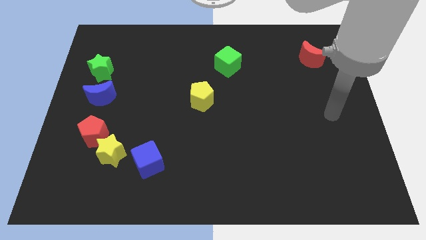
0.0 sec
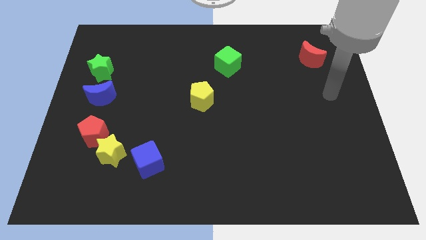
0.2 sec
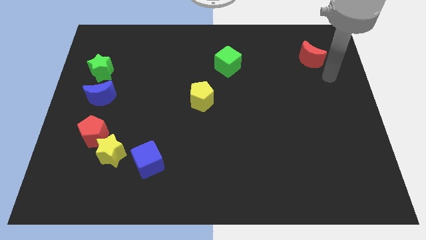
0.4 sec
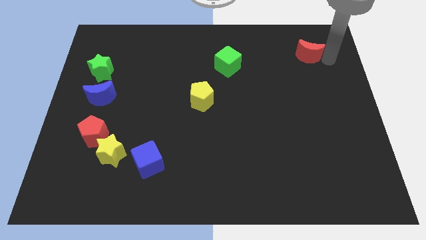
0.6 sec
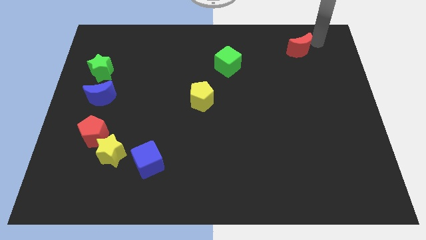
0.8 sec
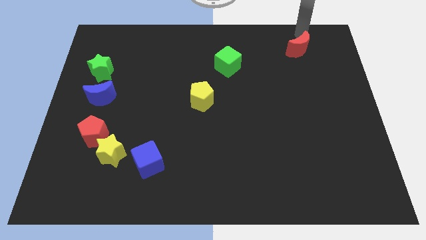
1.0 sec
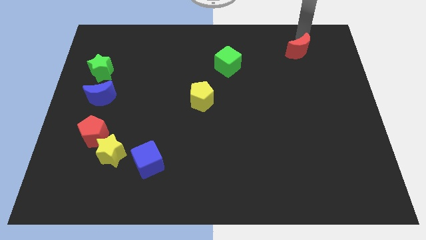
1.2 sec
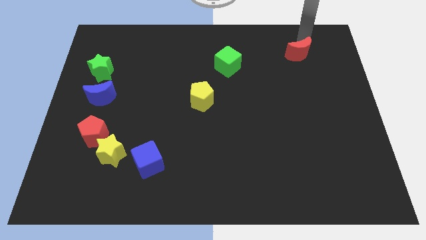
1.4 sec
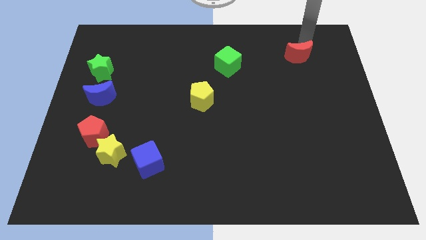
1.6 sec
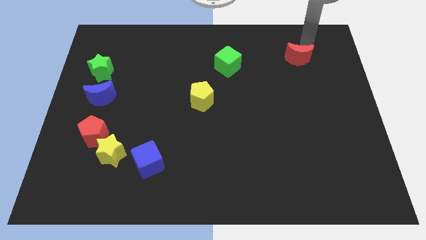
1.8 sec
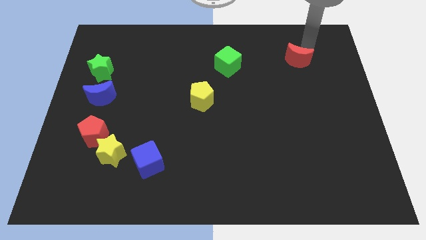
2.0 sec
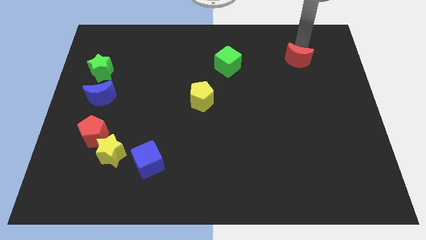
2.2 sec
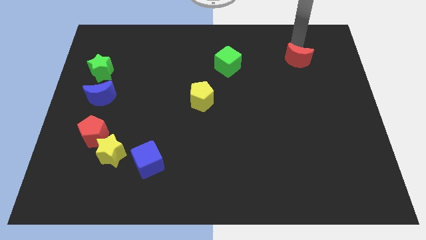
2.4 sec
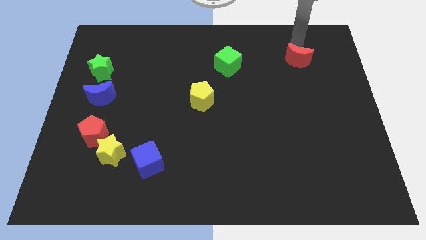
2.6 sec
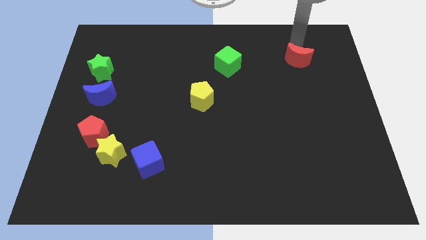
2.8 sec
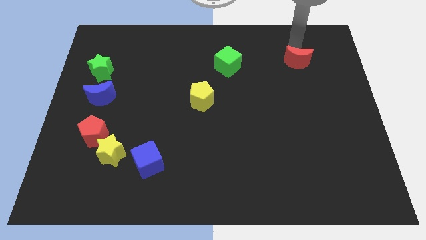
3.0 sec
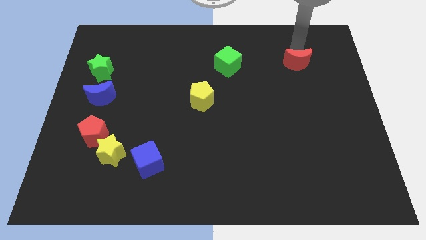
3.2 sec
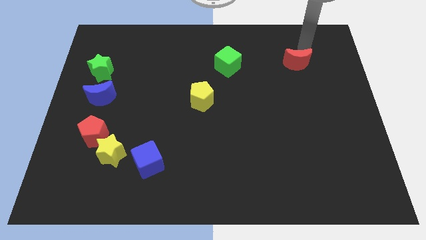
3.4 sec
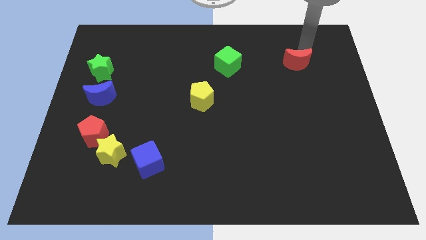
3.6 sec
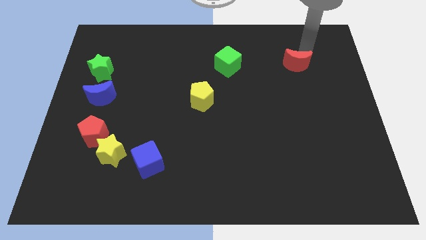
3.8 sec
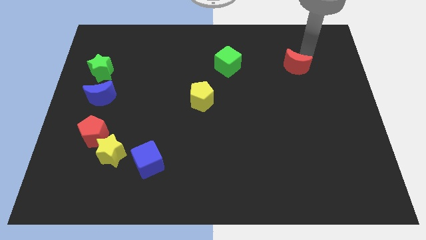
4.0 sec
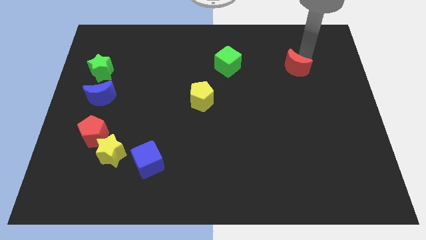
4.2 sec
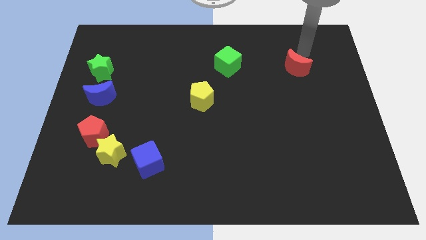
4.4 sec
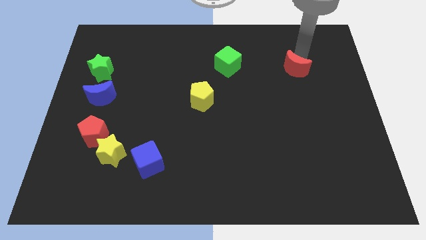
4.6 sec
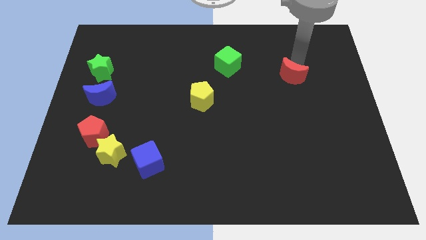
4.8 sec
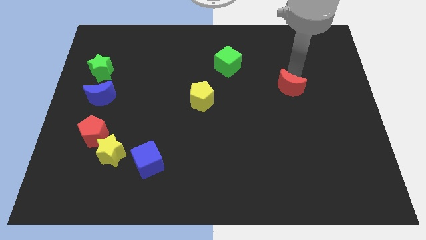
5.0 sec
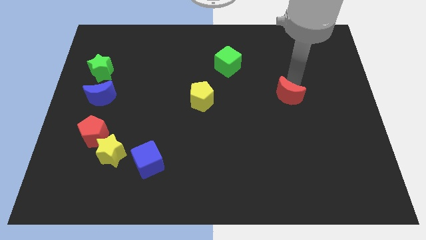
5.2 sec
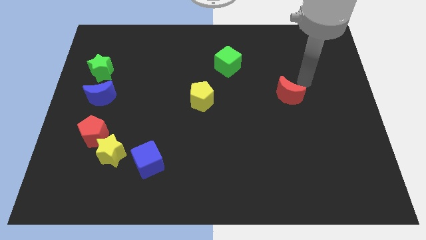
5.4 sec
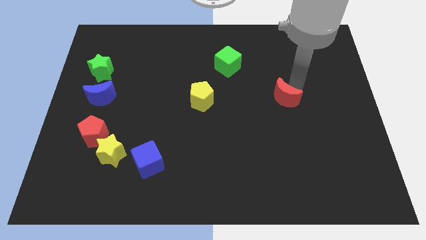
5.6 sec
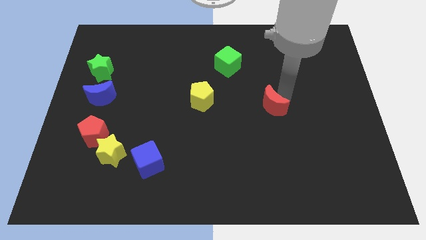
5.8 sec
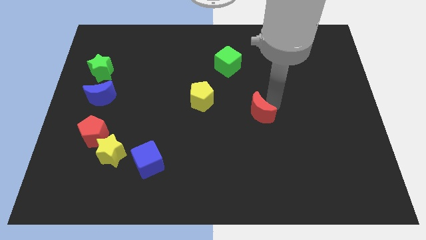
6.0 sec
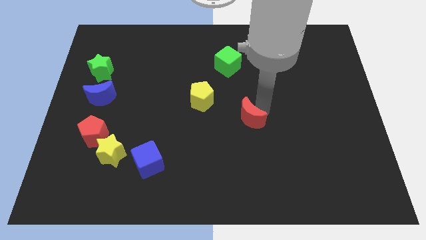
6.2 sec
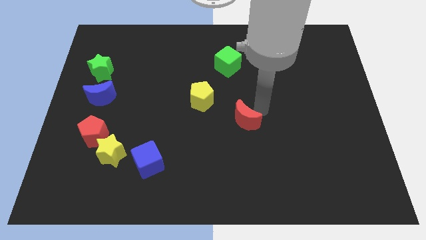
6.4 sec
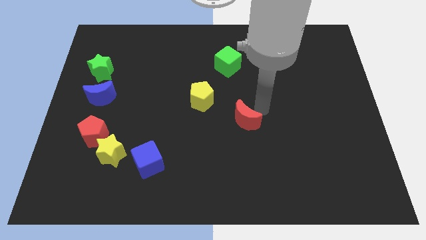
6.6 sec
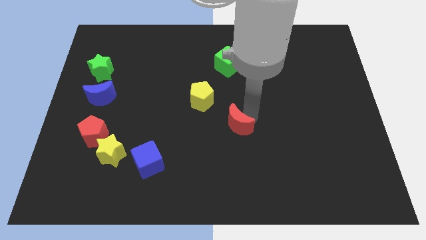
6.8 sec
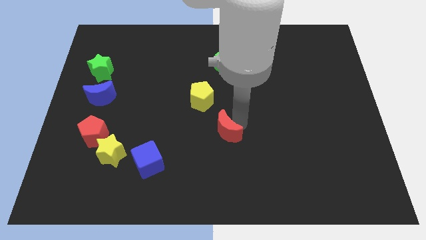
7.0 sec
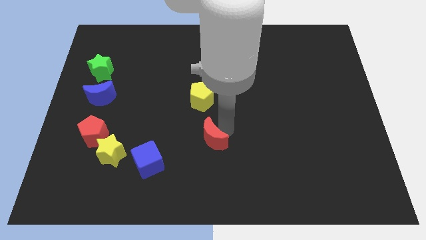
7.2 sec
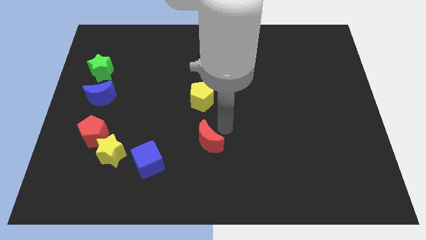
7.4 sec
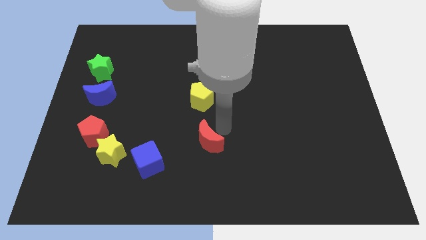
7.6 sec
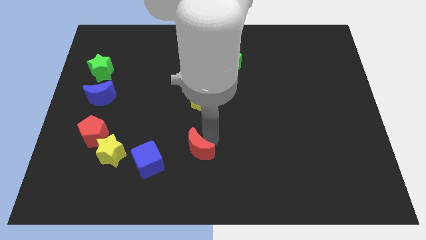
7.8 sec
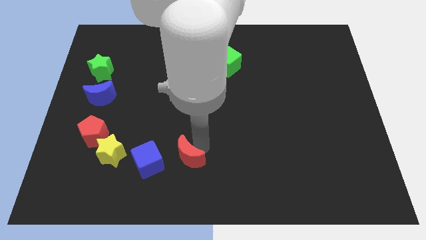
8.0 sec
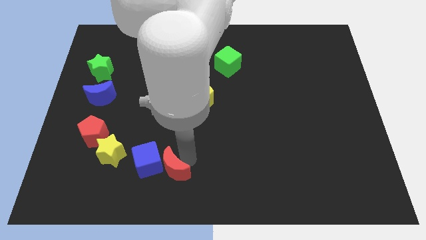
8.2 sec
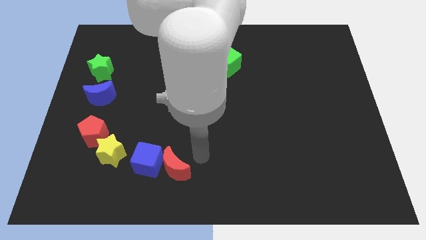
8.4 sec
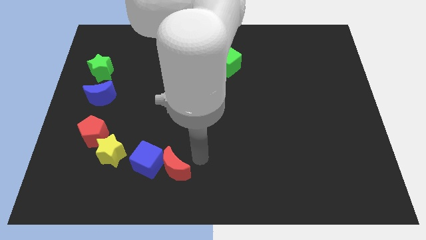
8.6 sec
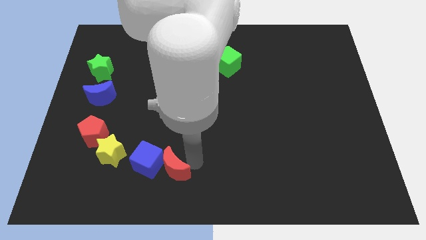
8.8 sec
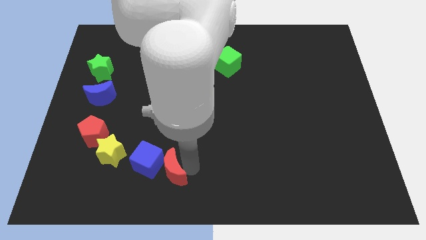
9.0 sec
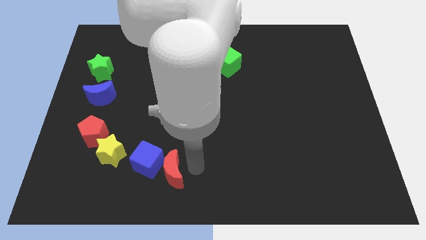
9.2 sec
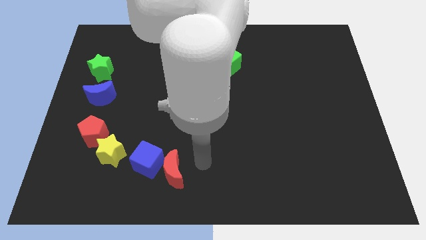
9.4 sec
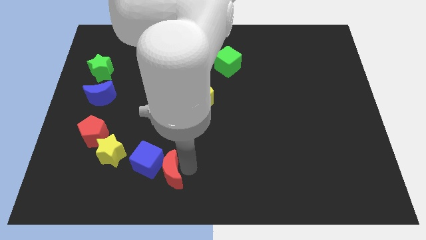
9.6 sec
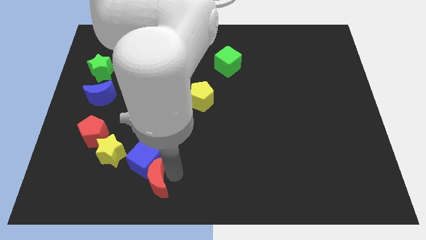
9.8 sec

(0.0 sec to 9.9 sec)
push the red moon to the bottom right of the yellow star

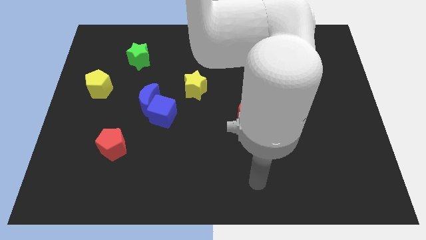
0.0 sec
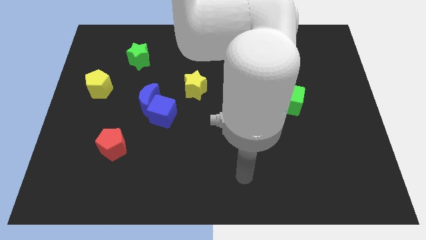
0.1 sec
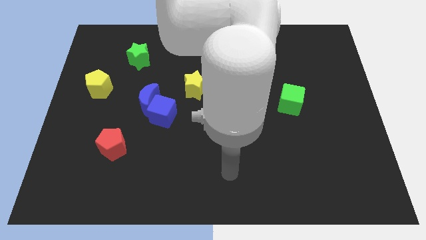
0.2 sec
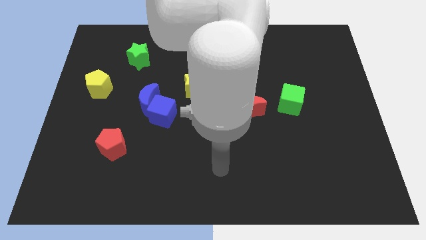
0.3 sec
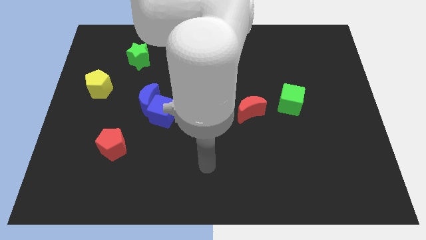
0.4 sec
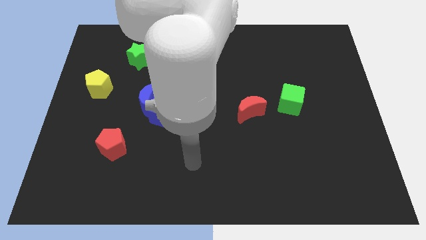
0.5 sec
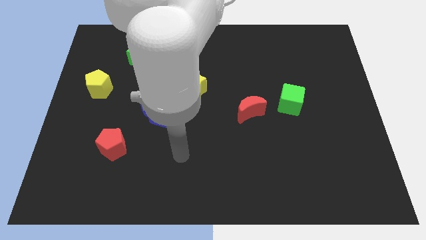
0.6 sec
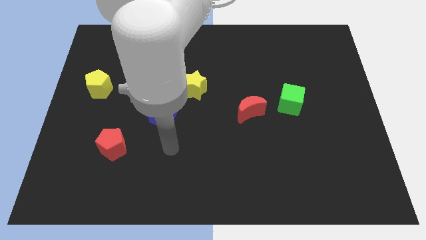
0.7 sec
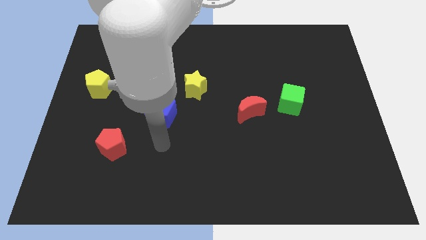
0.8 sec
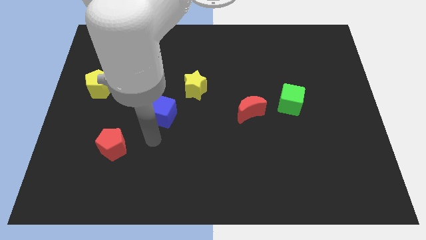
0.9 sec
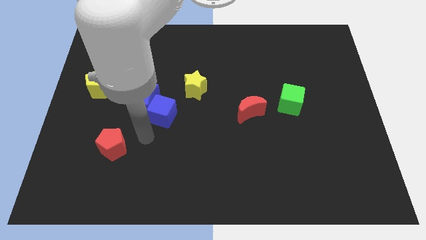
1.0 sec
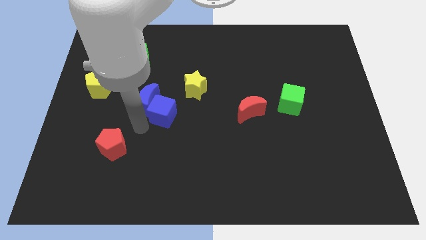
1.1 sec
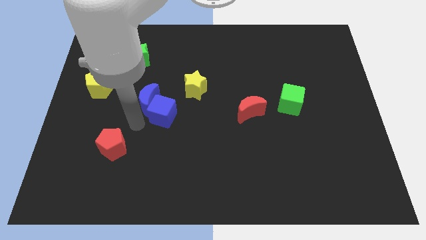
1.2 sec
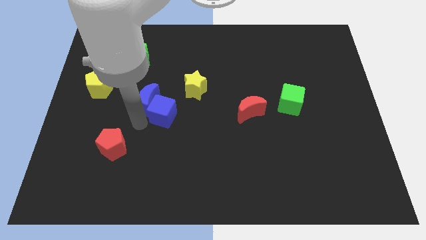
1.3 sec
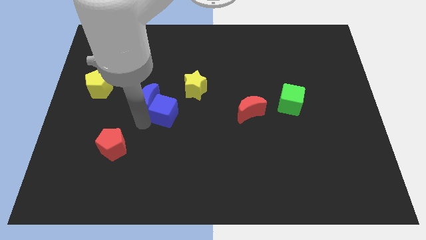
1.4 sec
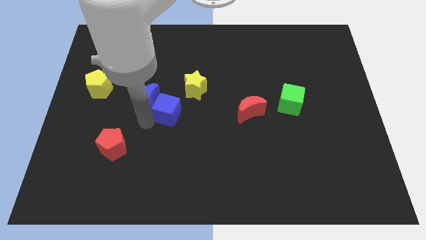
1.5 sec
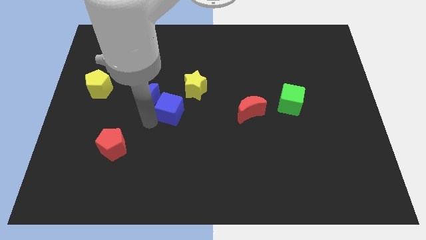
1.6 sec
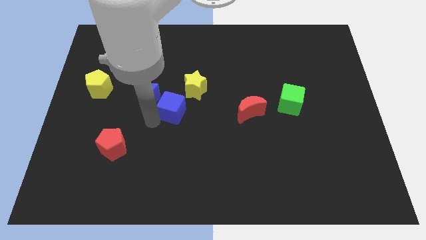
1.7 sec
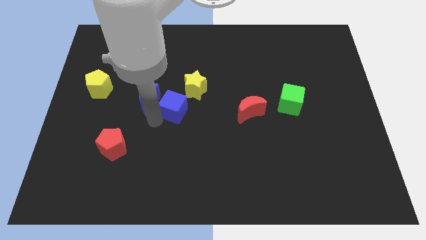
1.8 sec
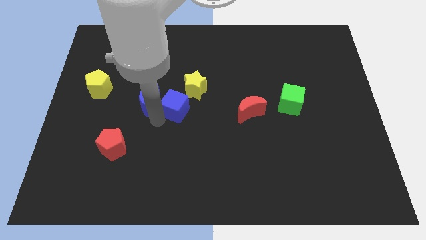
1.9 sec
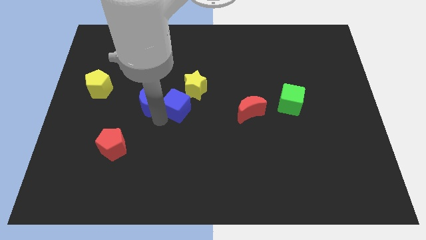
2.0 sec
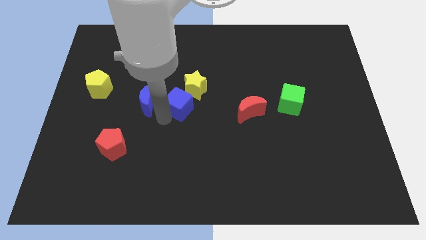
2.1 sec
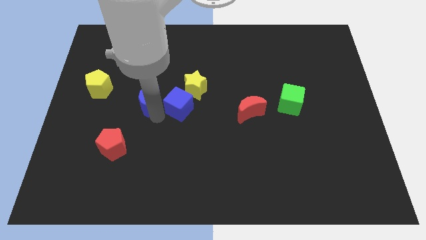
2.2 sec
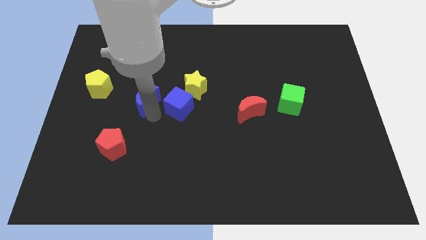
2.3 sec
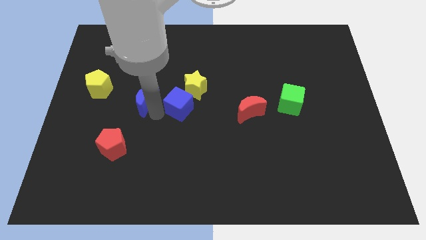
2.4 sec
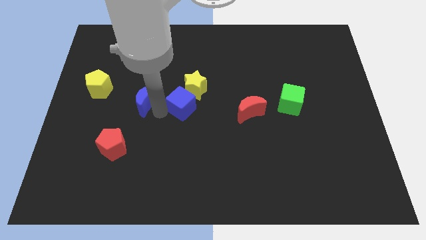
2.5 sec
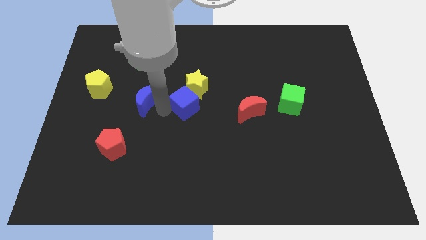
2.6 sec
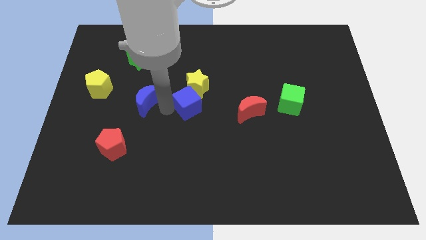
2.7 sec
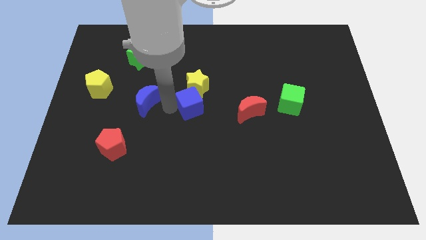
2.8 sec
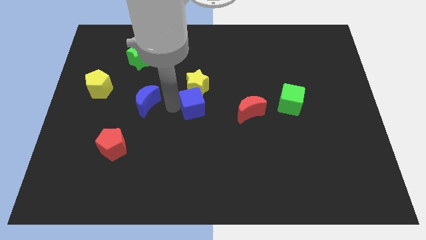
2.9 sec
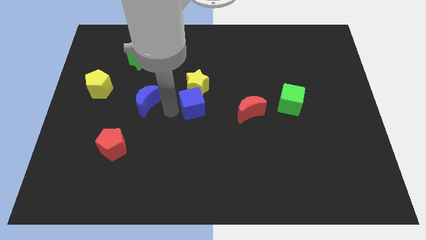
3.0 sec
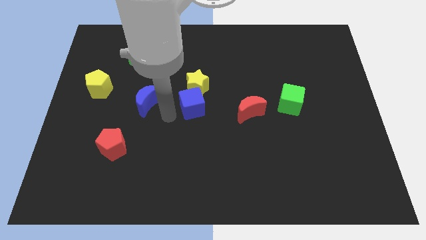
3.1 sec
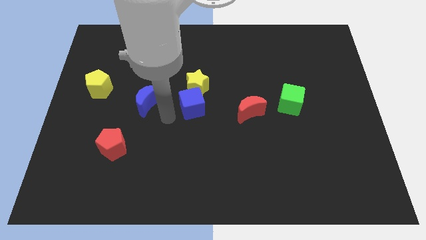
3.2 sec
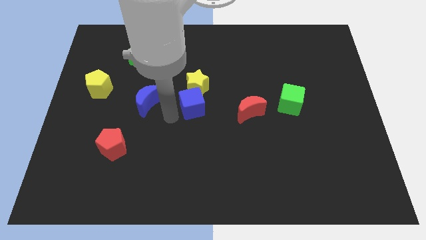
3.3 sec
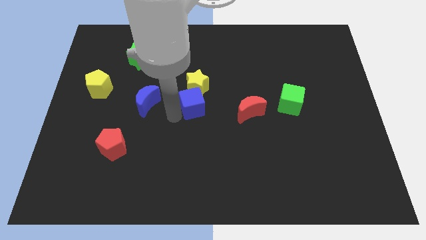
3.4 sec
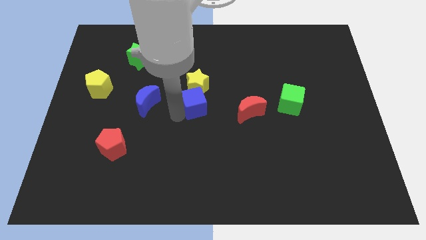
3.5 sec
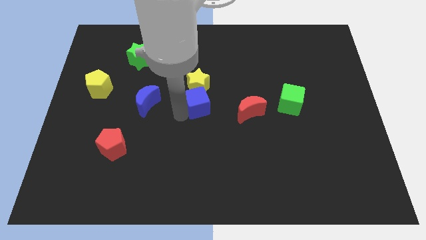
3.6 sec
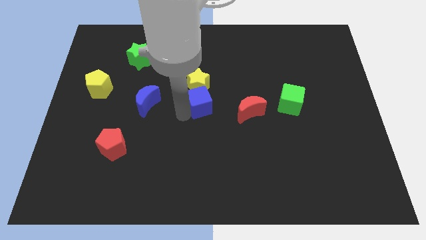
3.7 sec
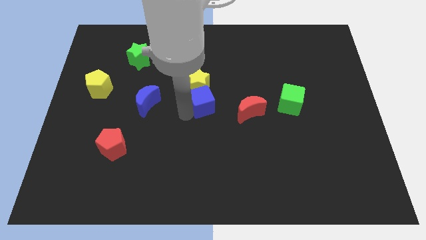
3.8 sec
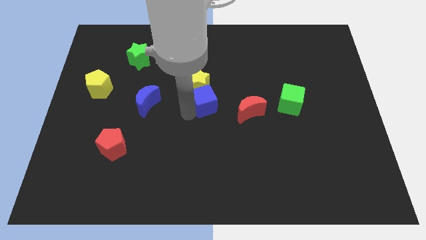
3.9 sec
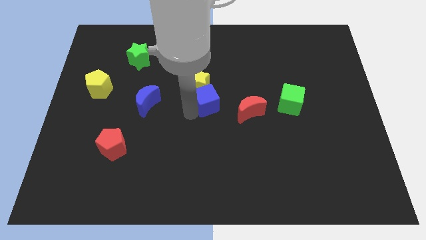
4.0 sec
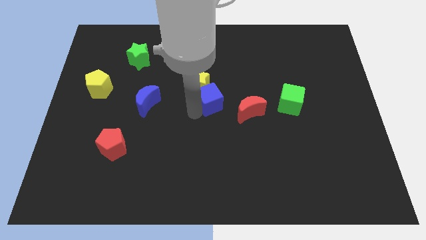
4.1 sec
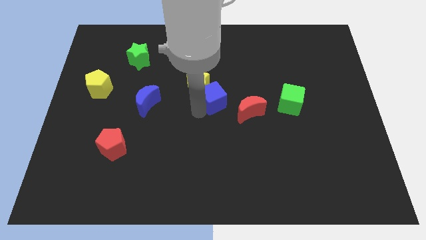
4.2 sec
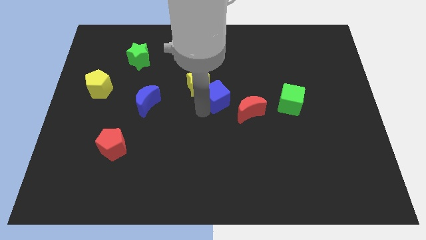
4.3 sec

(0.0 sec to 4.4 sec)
move the blue cube to the right side of the yellow star
